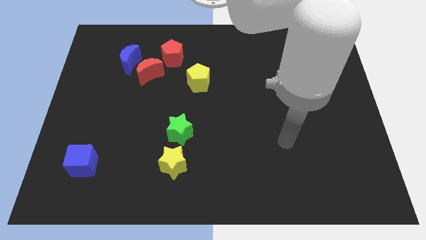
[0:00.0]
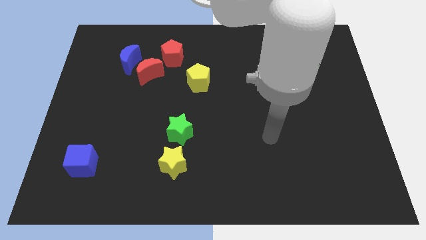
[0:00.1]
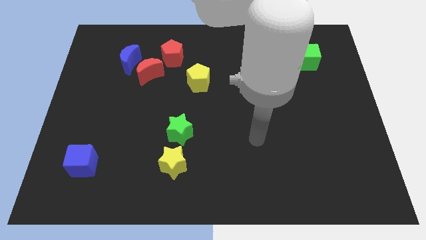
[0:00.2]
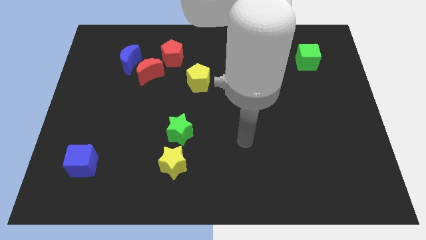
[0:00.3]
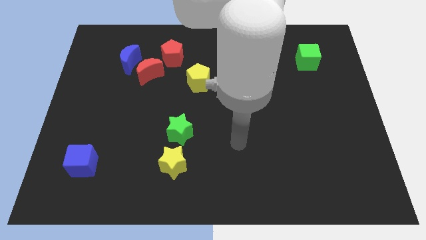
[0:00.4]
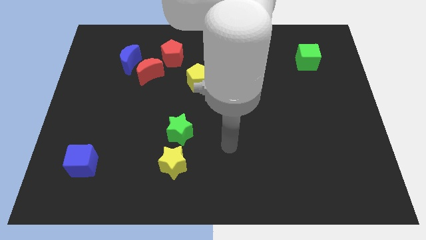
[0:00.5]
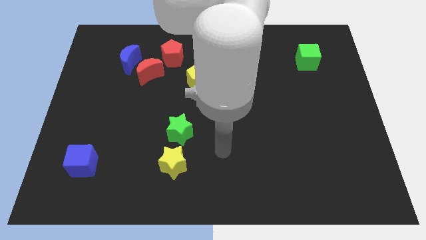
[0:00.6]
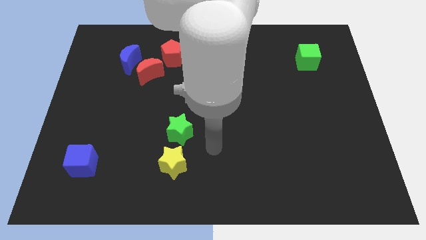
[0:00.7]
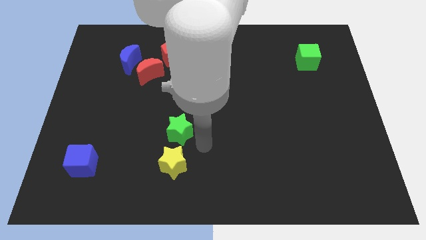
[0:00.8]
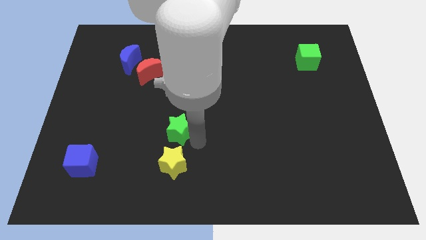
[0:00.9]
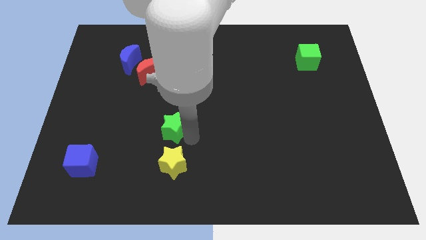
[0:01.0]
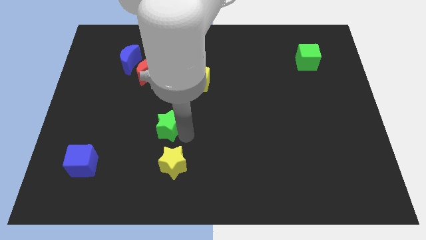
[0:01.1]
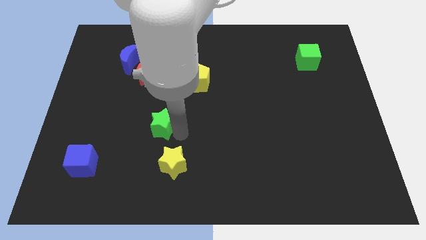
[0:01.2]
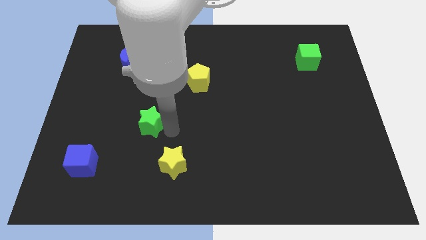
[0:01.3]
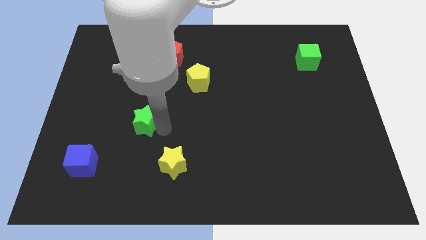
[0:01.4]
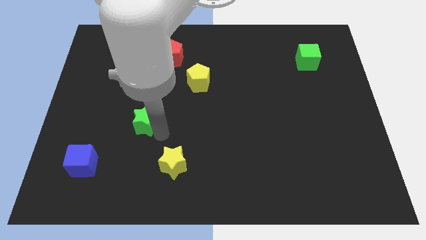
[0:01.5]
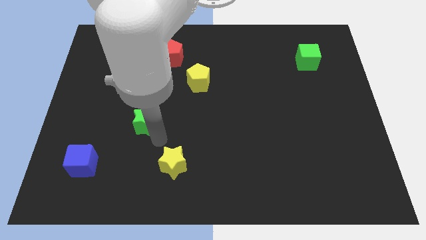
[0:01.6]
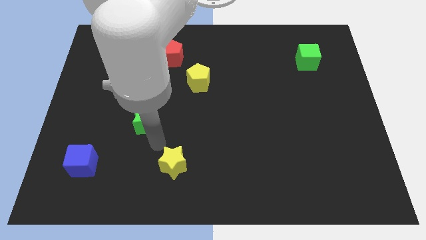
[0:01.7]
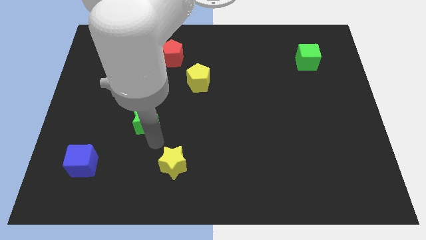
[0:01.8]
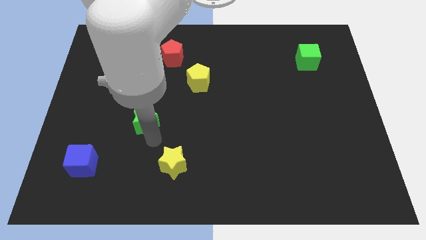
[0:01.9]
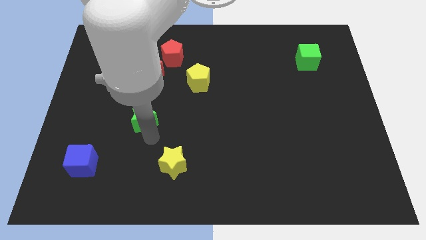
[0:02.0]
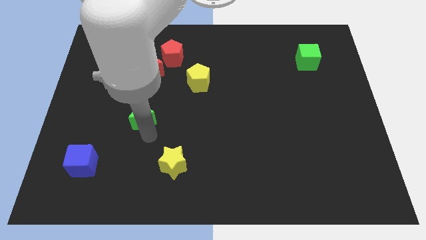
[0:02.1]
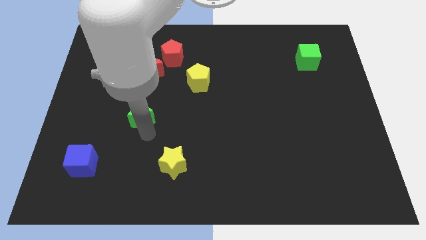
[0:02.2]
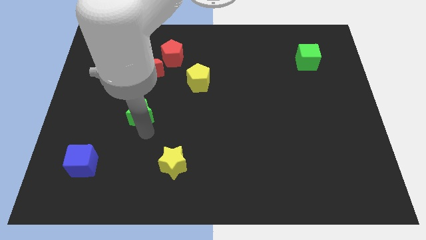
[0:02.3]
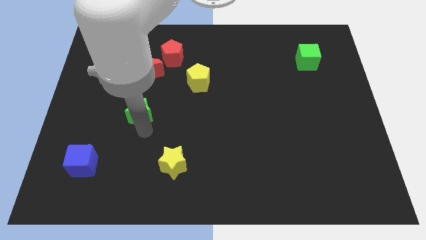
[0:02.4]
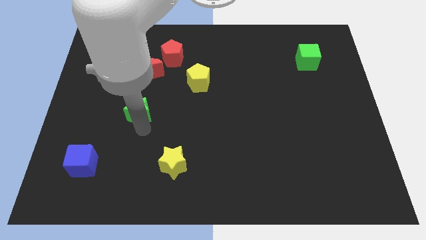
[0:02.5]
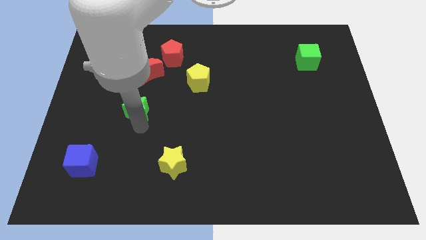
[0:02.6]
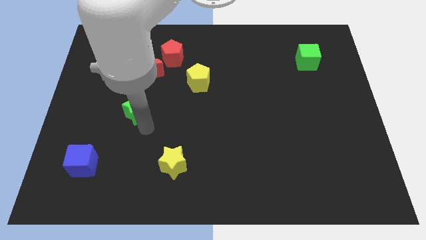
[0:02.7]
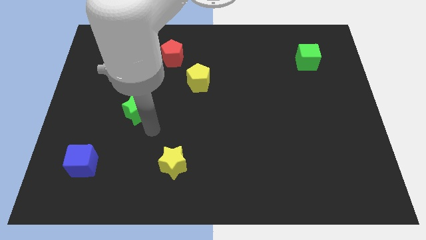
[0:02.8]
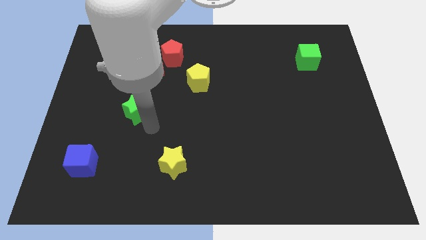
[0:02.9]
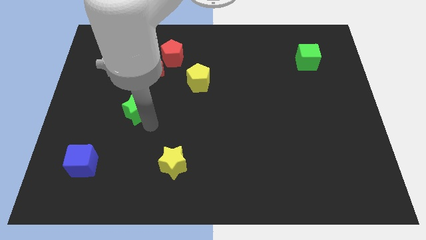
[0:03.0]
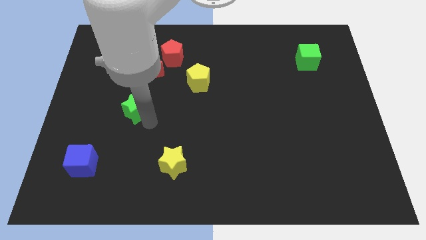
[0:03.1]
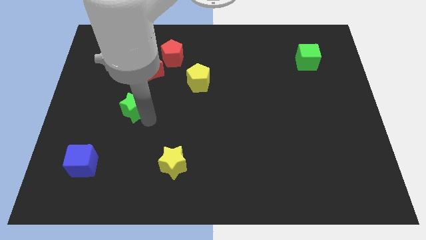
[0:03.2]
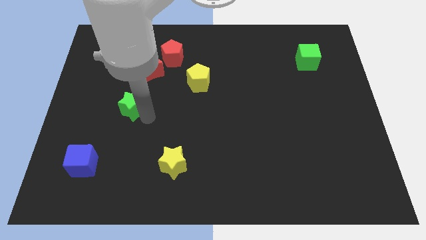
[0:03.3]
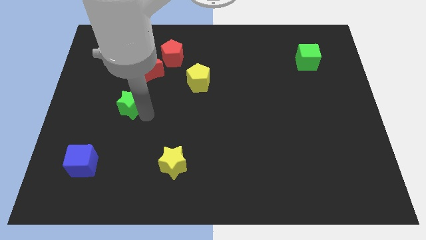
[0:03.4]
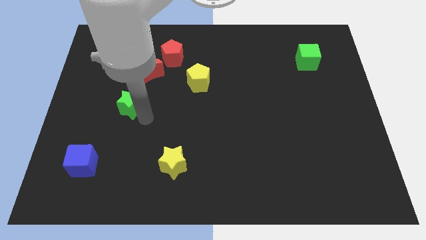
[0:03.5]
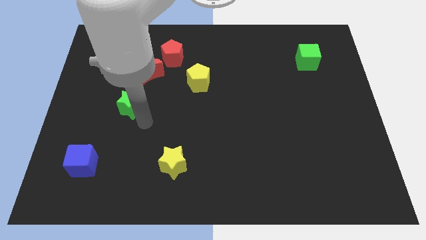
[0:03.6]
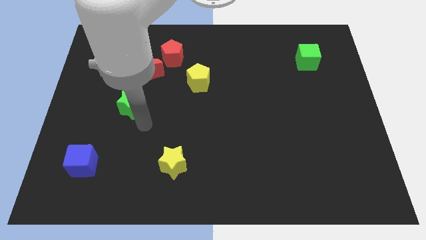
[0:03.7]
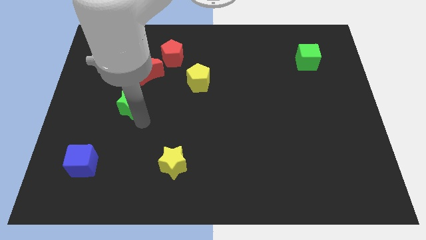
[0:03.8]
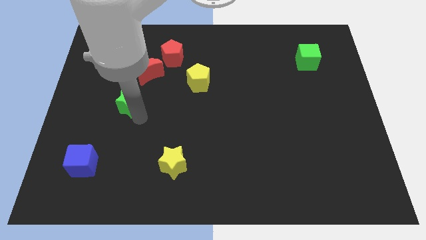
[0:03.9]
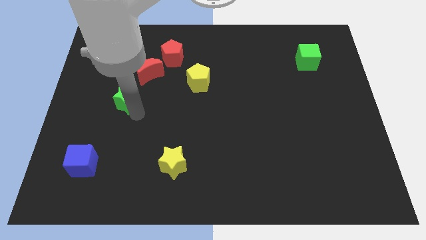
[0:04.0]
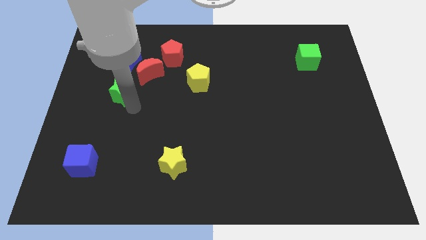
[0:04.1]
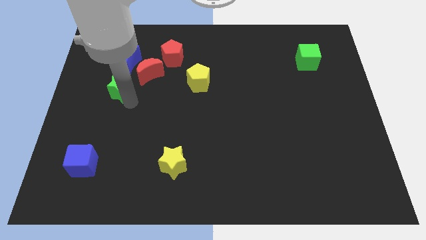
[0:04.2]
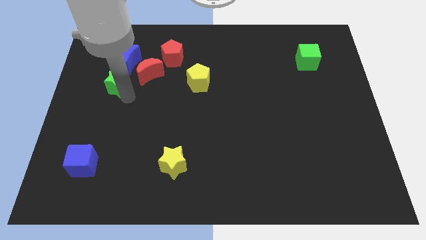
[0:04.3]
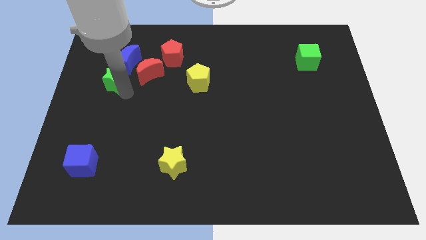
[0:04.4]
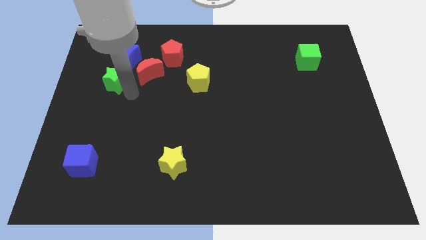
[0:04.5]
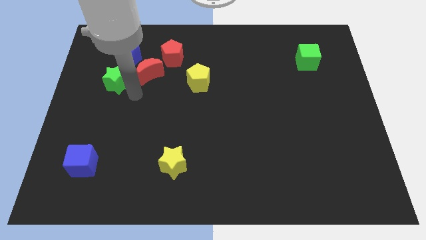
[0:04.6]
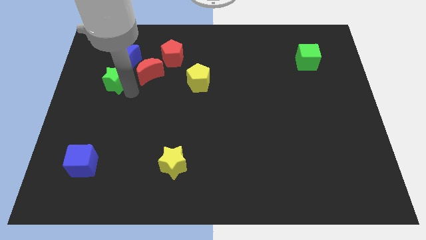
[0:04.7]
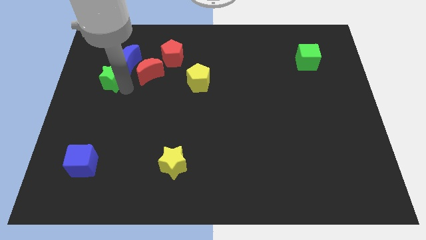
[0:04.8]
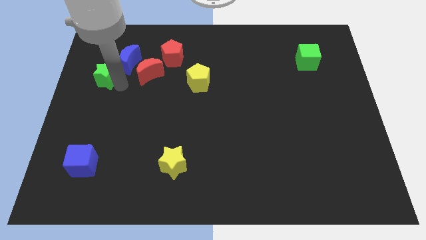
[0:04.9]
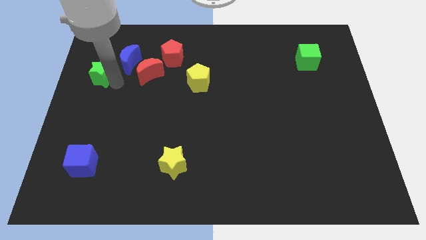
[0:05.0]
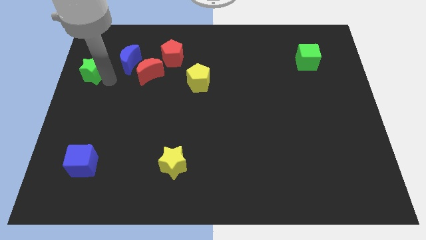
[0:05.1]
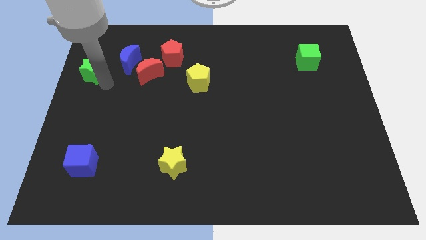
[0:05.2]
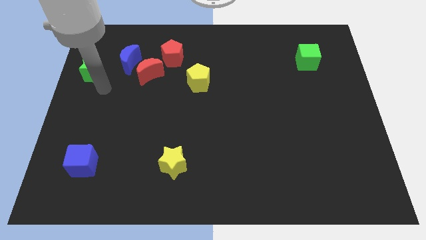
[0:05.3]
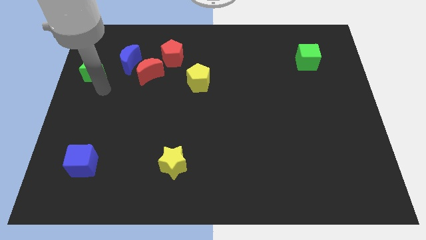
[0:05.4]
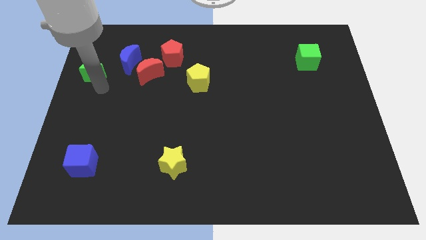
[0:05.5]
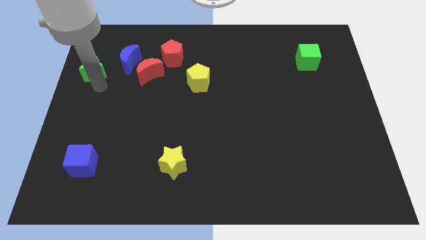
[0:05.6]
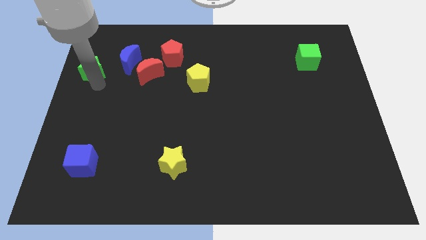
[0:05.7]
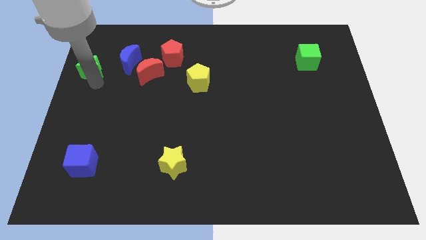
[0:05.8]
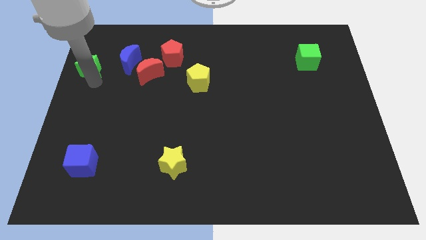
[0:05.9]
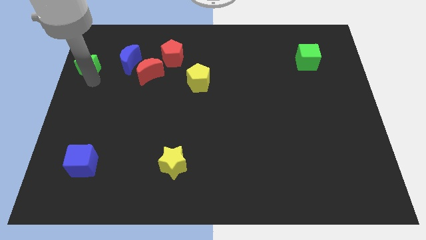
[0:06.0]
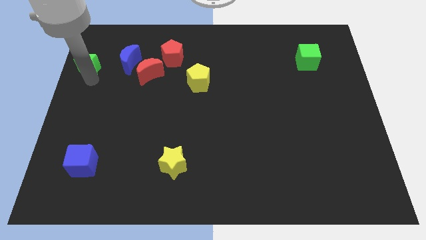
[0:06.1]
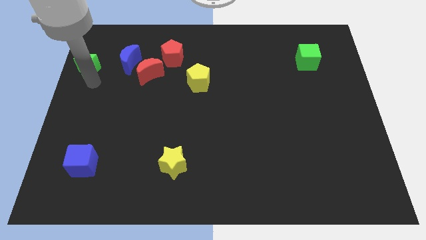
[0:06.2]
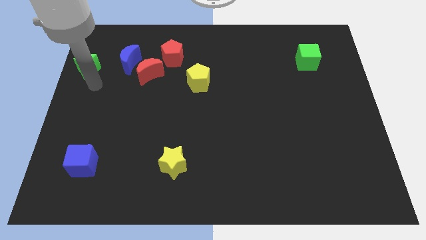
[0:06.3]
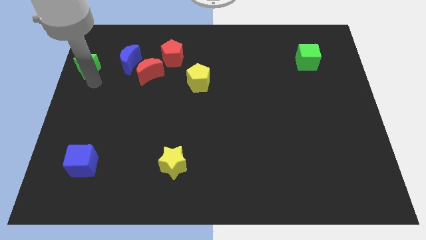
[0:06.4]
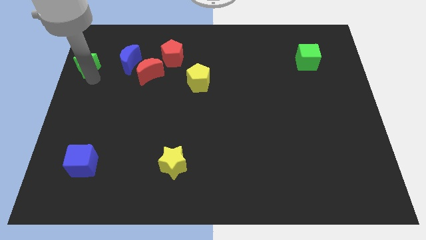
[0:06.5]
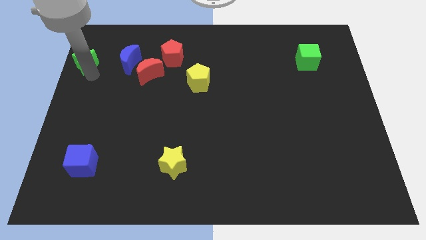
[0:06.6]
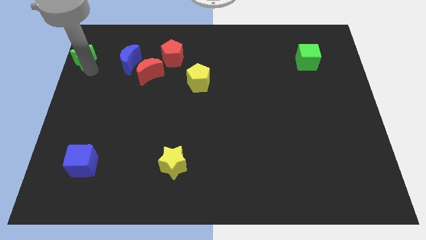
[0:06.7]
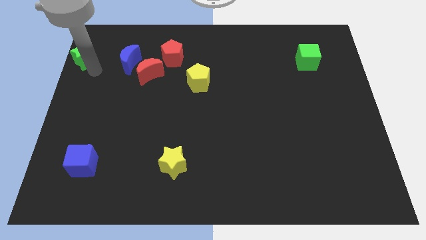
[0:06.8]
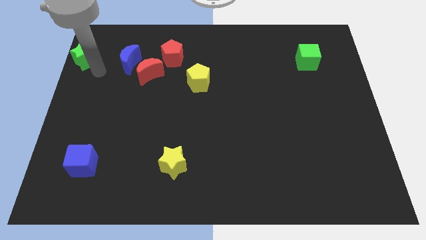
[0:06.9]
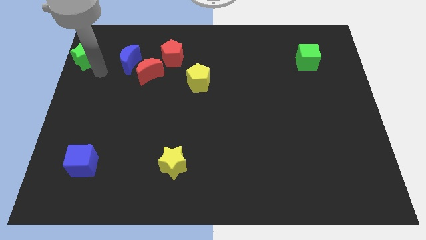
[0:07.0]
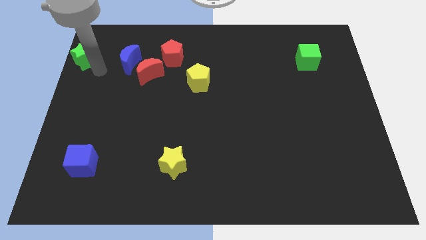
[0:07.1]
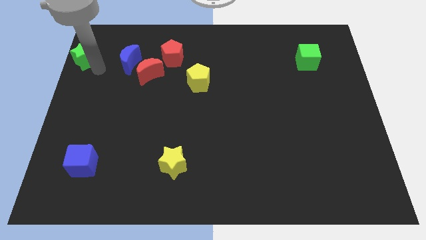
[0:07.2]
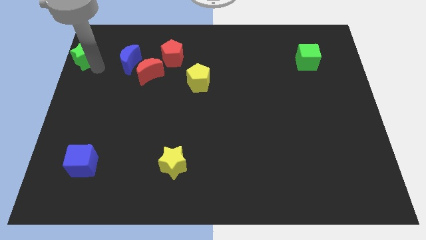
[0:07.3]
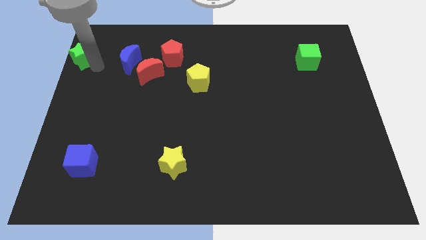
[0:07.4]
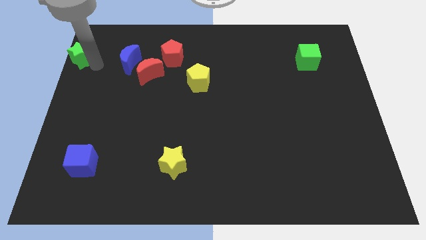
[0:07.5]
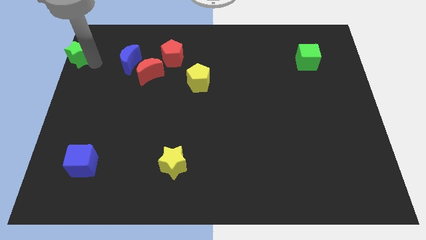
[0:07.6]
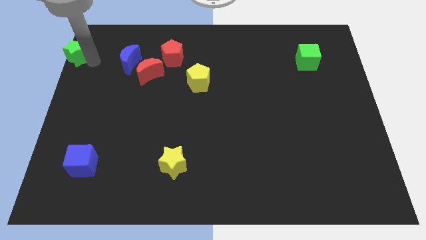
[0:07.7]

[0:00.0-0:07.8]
move the green star to the top left of the board
